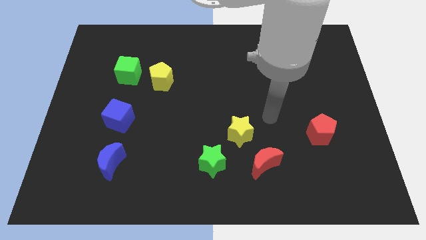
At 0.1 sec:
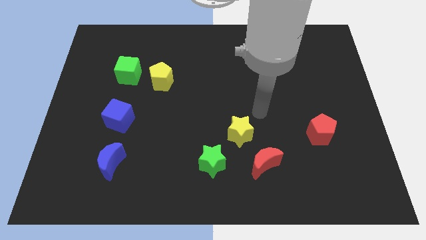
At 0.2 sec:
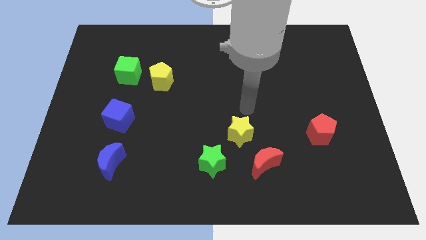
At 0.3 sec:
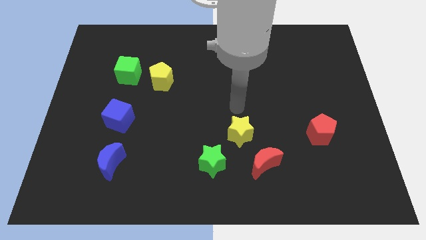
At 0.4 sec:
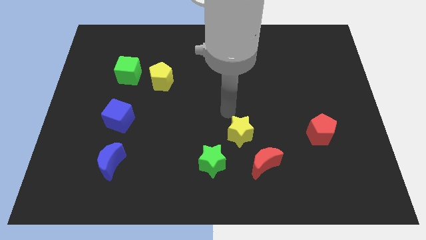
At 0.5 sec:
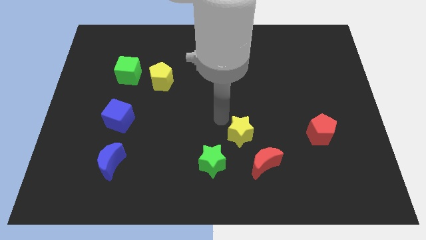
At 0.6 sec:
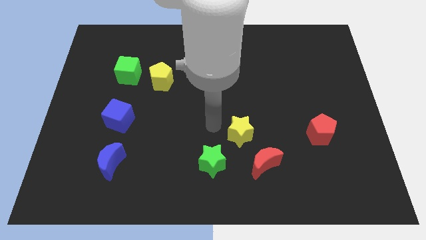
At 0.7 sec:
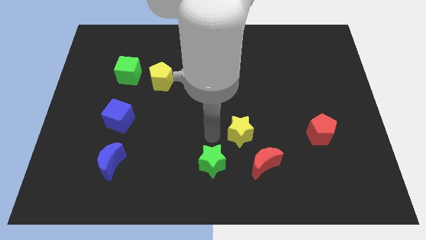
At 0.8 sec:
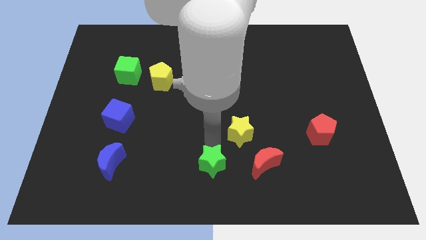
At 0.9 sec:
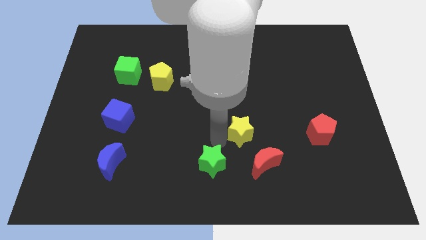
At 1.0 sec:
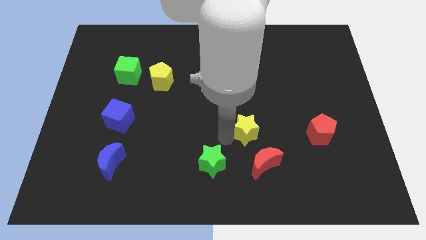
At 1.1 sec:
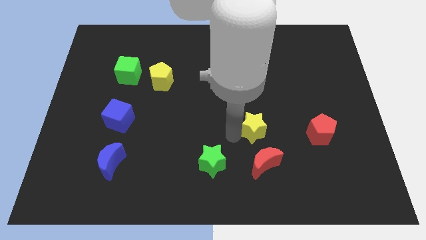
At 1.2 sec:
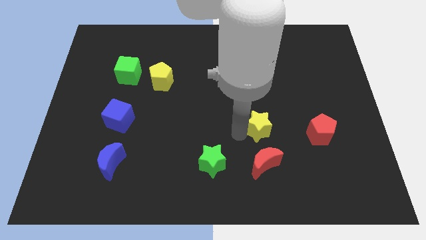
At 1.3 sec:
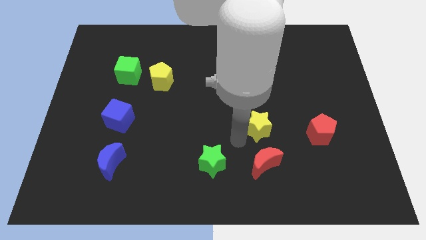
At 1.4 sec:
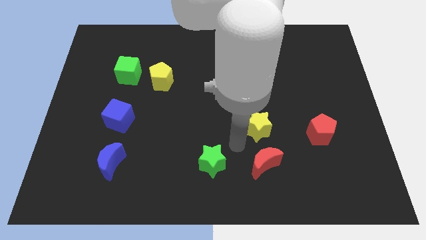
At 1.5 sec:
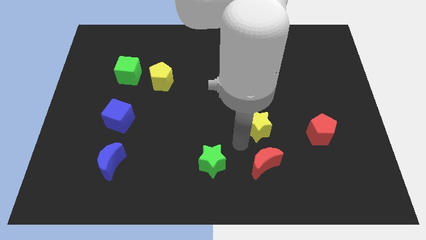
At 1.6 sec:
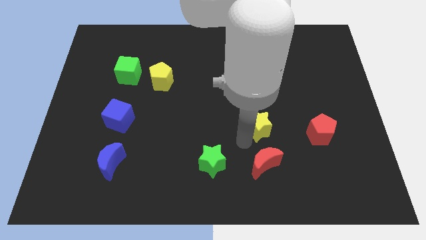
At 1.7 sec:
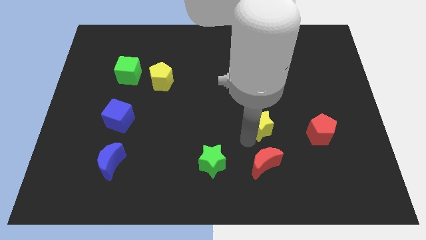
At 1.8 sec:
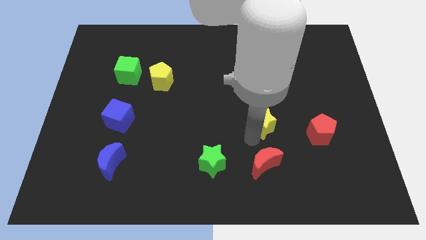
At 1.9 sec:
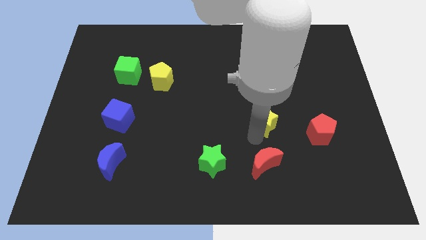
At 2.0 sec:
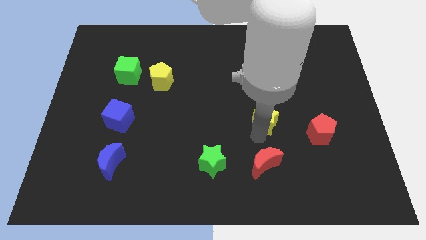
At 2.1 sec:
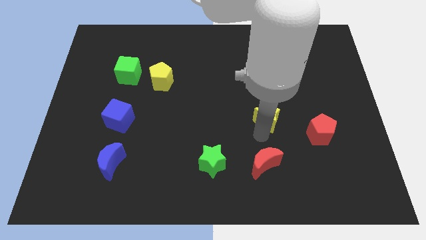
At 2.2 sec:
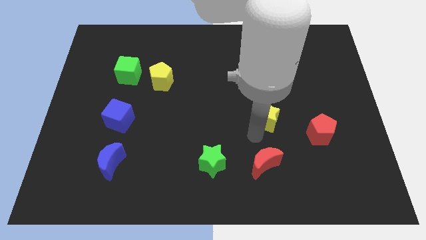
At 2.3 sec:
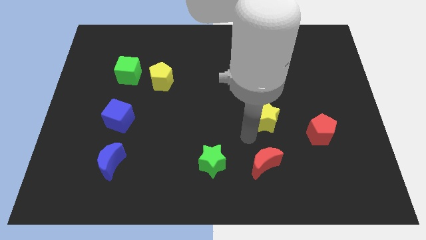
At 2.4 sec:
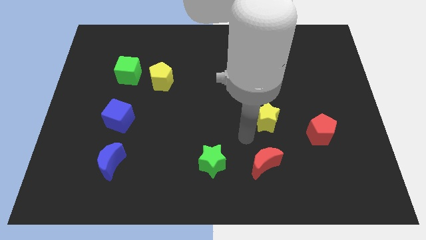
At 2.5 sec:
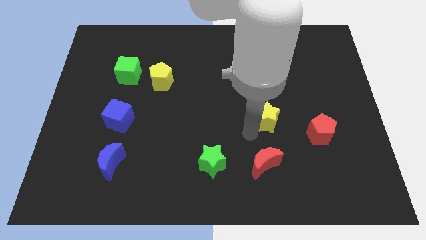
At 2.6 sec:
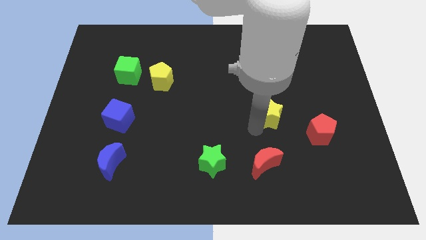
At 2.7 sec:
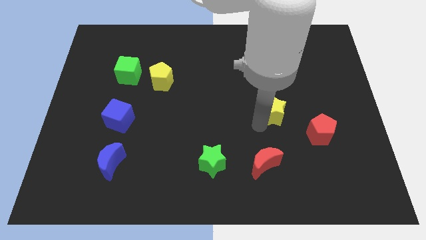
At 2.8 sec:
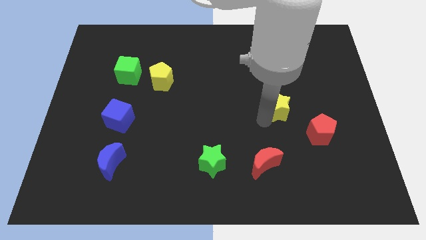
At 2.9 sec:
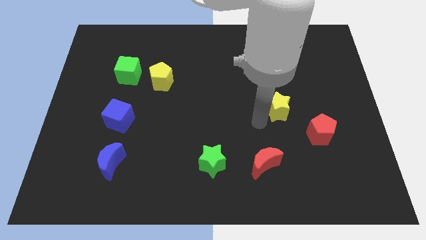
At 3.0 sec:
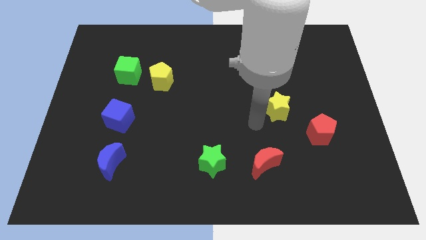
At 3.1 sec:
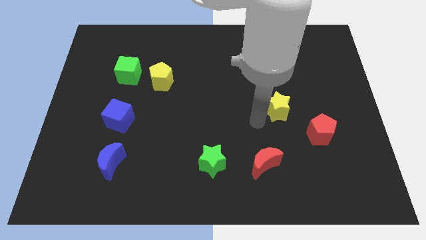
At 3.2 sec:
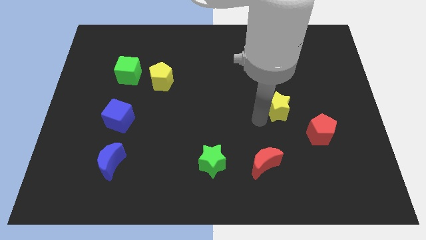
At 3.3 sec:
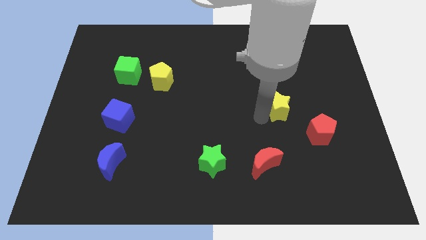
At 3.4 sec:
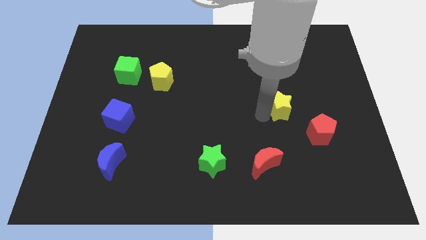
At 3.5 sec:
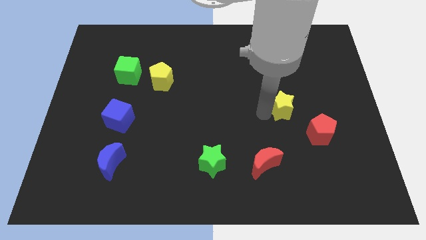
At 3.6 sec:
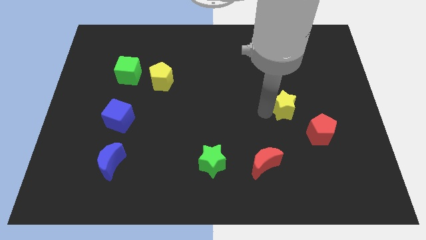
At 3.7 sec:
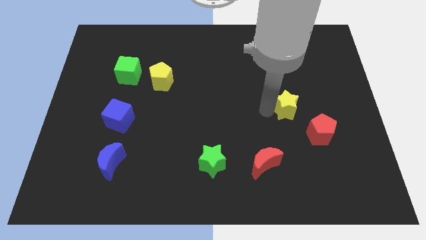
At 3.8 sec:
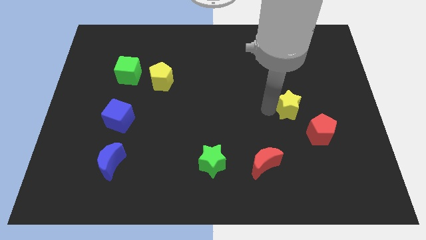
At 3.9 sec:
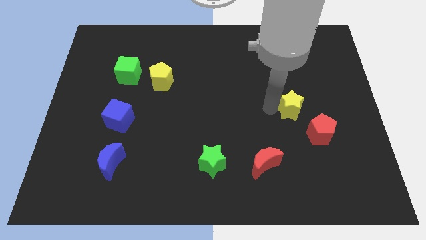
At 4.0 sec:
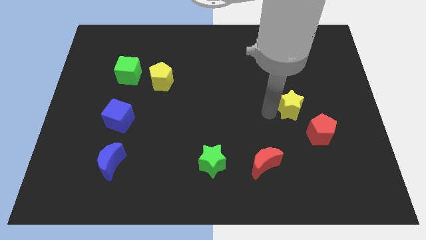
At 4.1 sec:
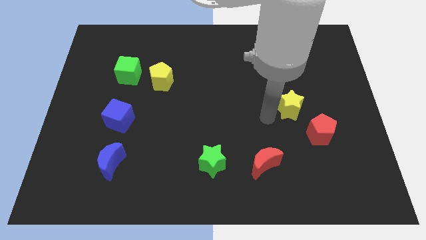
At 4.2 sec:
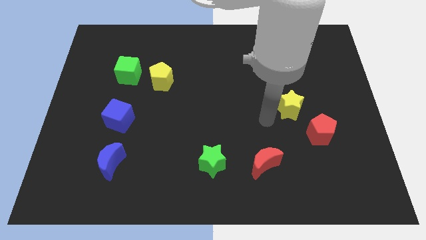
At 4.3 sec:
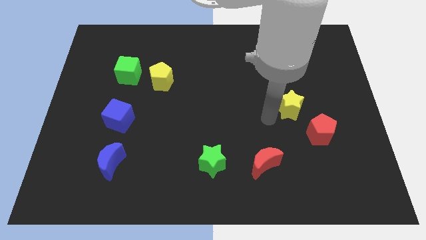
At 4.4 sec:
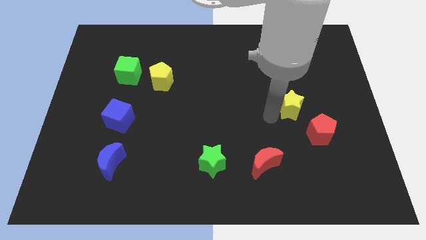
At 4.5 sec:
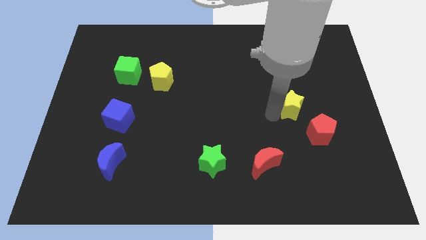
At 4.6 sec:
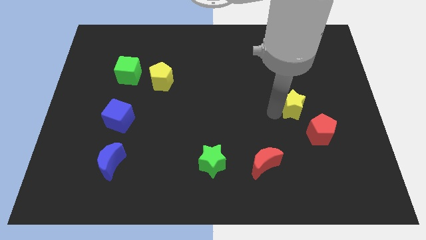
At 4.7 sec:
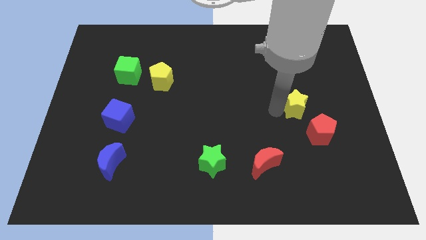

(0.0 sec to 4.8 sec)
push the yellow star to the top of the red pentagon

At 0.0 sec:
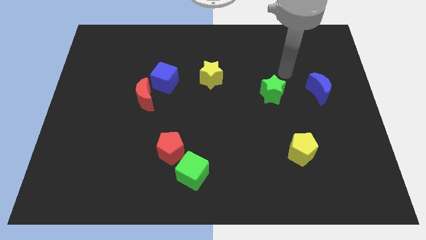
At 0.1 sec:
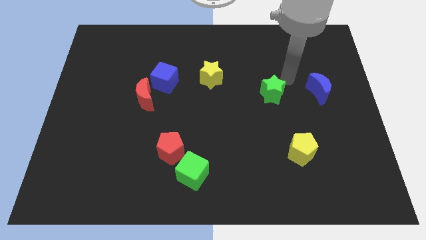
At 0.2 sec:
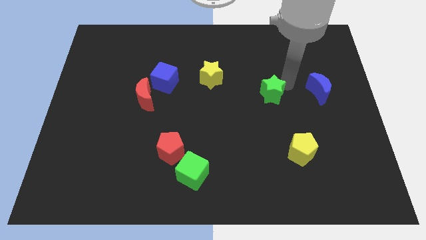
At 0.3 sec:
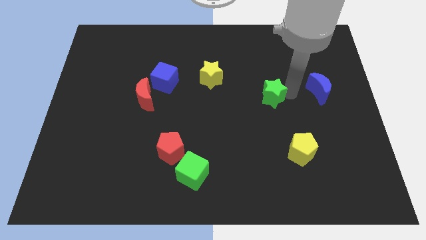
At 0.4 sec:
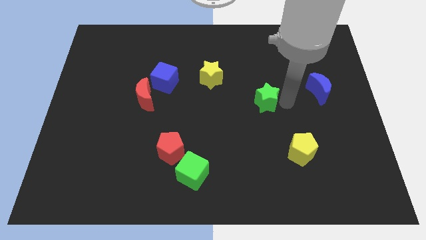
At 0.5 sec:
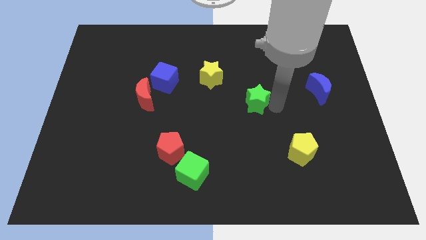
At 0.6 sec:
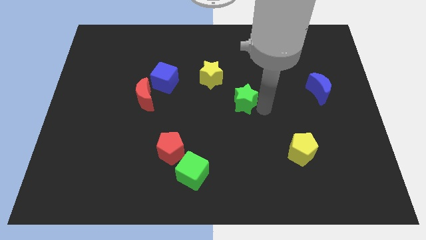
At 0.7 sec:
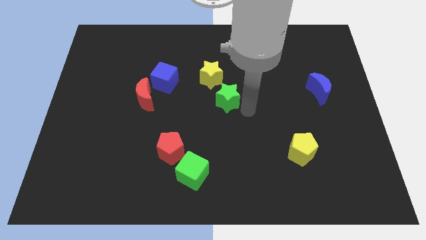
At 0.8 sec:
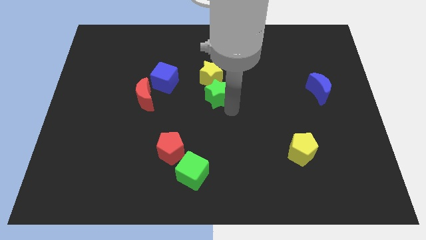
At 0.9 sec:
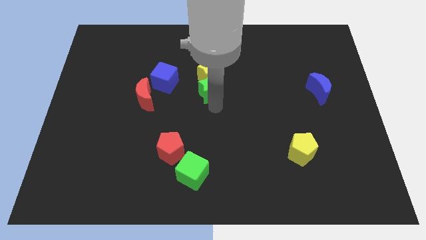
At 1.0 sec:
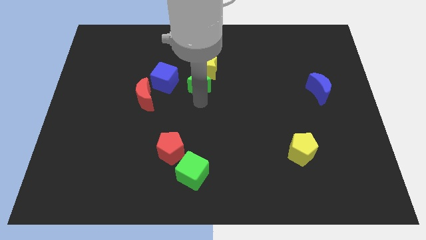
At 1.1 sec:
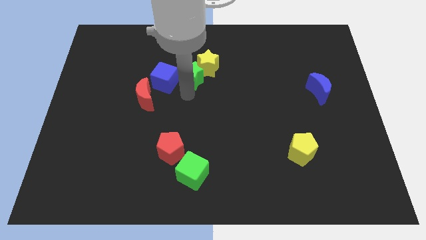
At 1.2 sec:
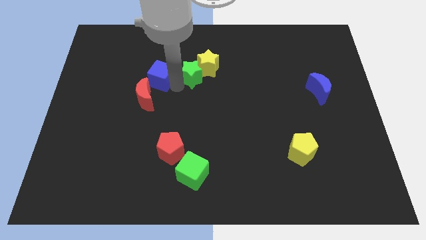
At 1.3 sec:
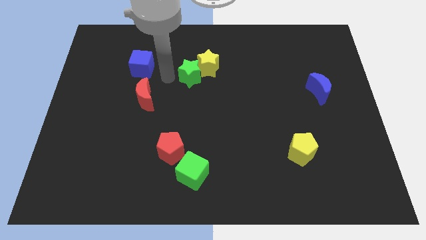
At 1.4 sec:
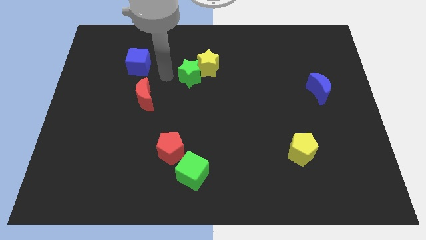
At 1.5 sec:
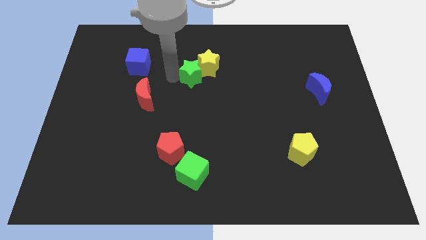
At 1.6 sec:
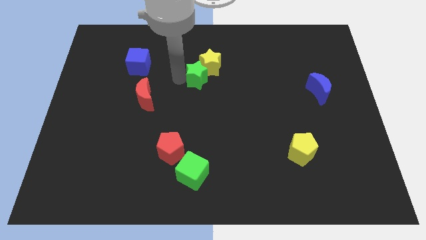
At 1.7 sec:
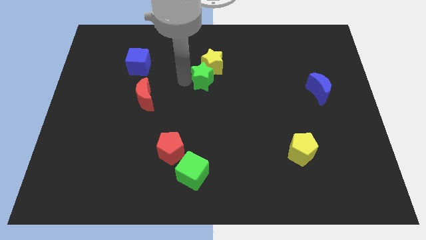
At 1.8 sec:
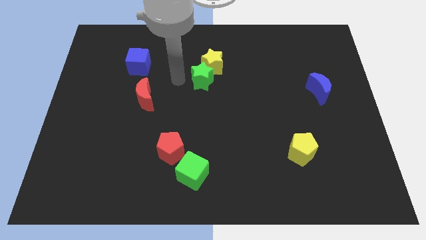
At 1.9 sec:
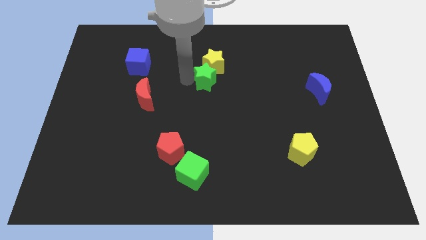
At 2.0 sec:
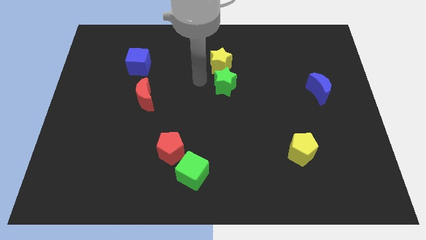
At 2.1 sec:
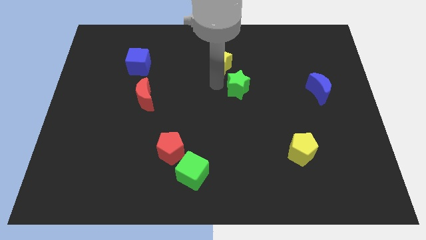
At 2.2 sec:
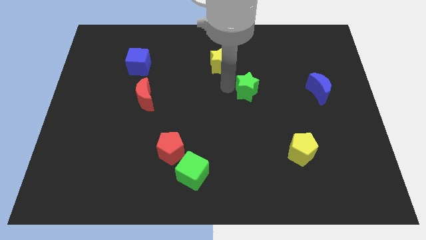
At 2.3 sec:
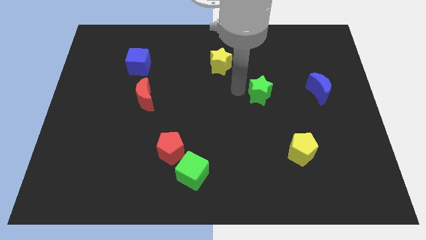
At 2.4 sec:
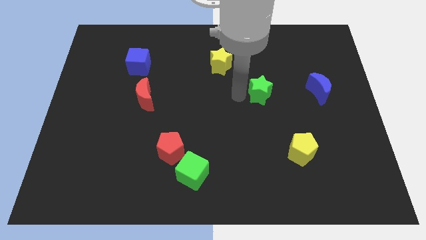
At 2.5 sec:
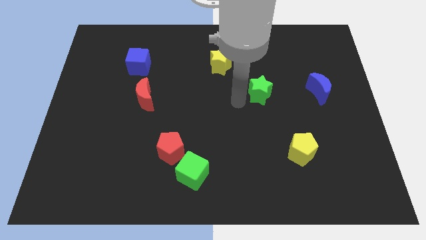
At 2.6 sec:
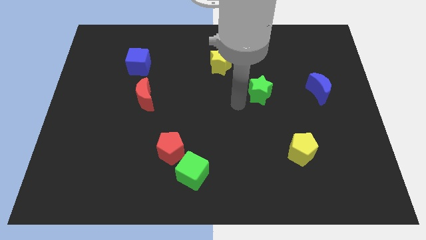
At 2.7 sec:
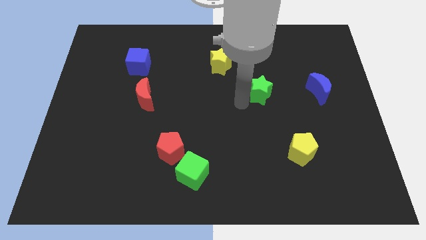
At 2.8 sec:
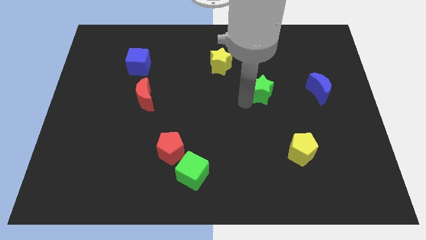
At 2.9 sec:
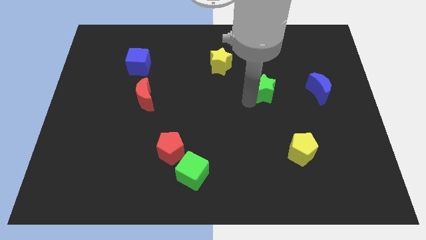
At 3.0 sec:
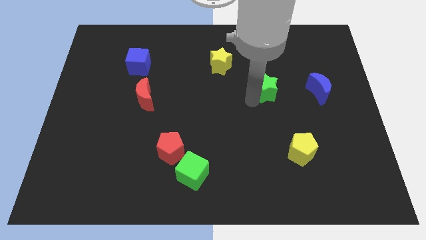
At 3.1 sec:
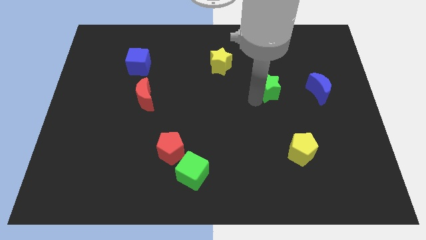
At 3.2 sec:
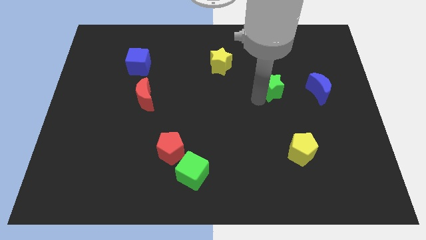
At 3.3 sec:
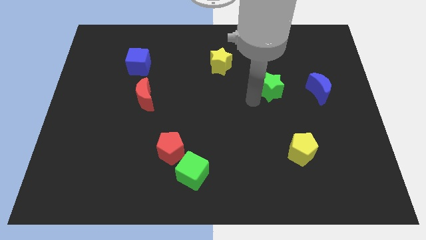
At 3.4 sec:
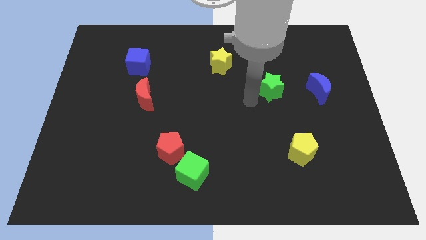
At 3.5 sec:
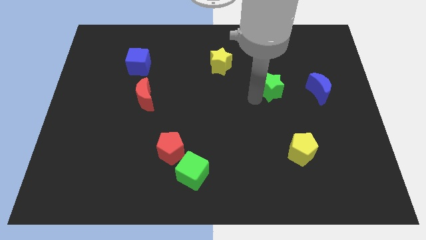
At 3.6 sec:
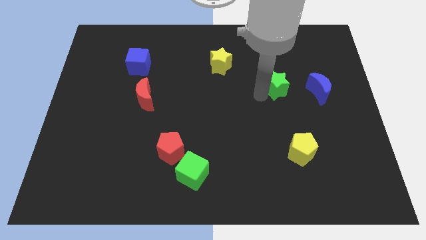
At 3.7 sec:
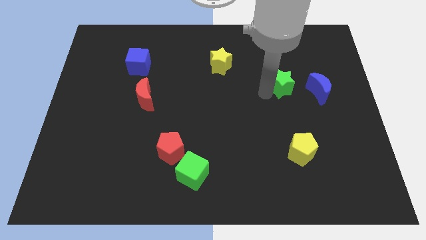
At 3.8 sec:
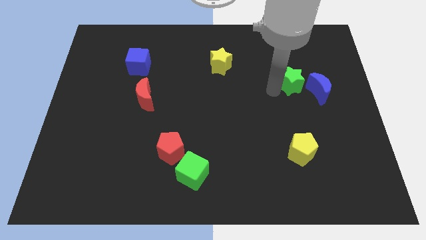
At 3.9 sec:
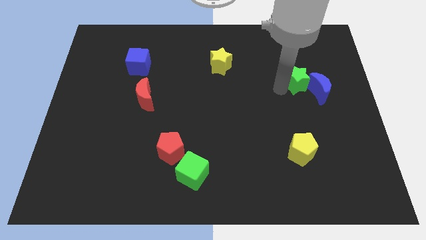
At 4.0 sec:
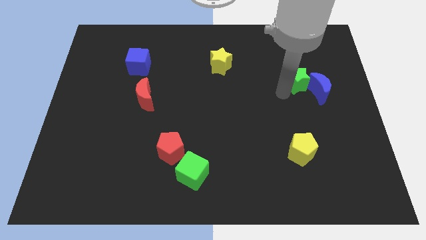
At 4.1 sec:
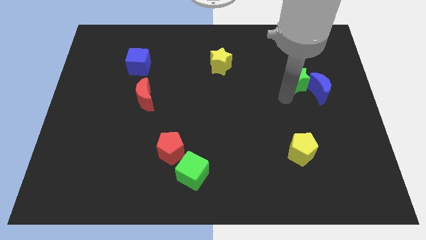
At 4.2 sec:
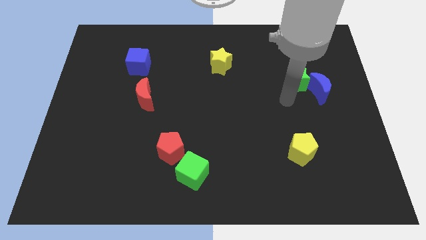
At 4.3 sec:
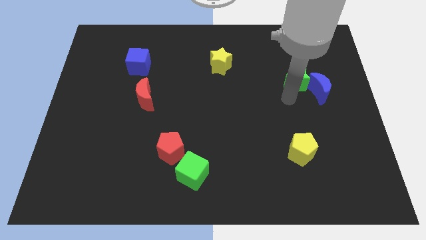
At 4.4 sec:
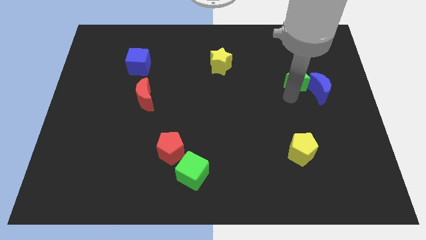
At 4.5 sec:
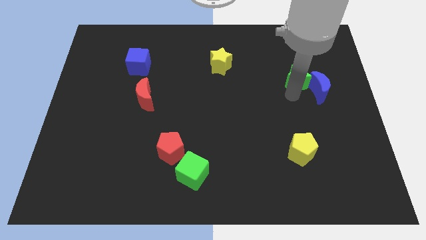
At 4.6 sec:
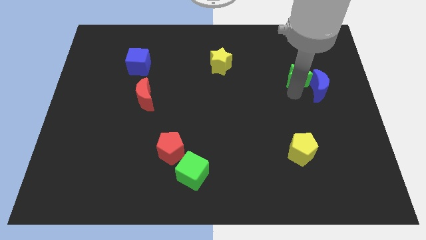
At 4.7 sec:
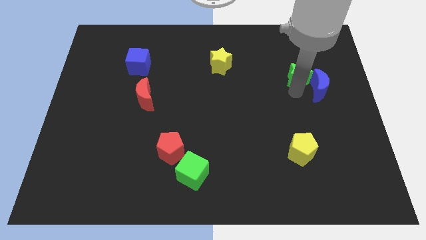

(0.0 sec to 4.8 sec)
put the green star above the blue moon
